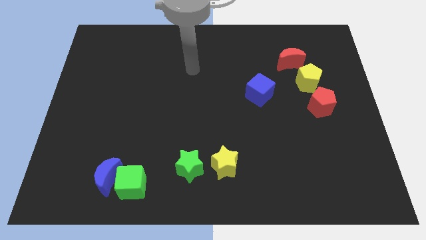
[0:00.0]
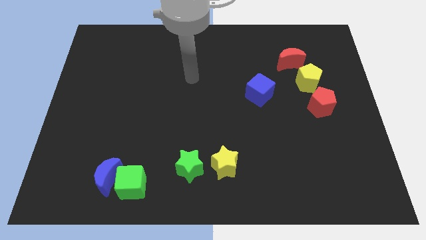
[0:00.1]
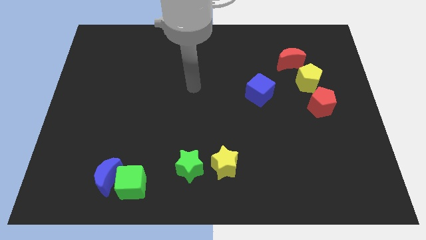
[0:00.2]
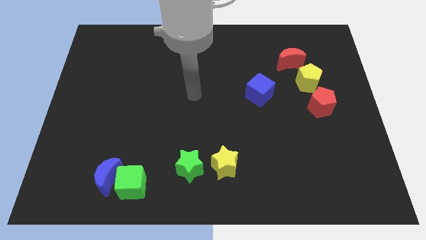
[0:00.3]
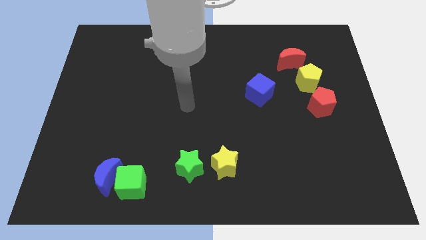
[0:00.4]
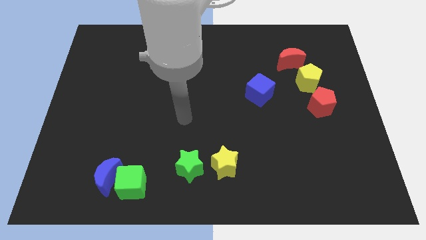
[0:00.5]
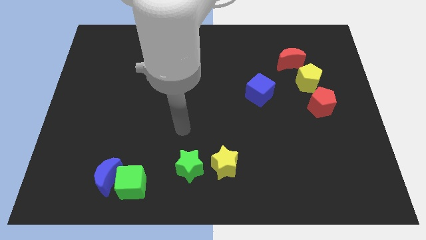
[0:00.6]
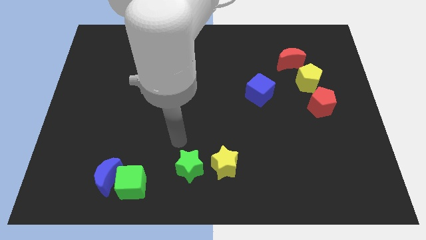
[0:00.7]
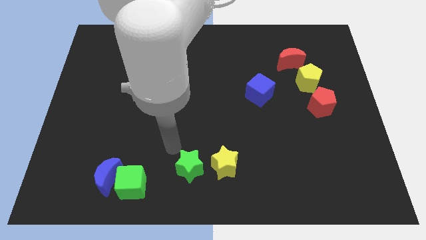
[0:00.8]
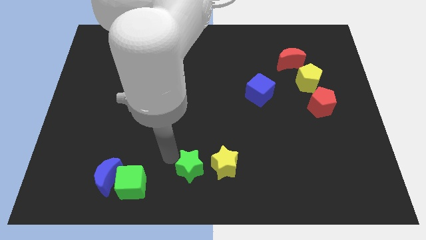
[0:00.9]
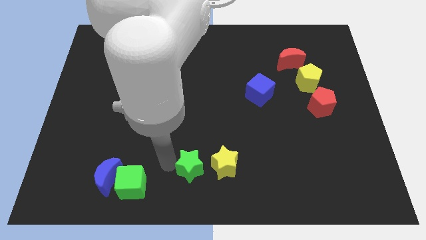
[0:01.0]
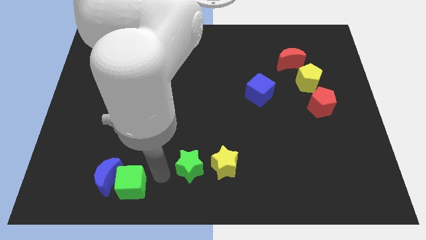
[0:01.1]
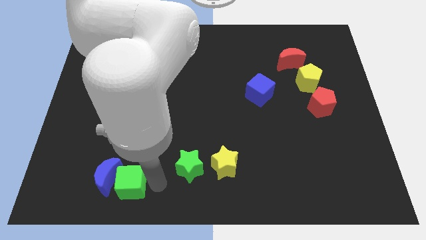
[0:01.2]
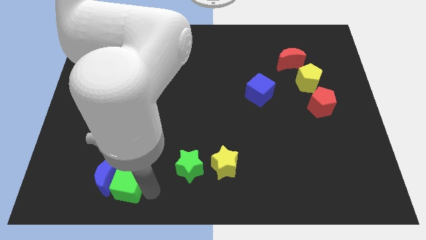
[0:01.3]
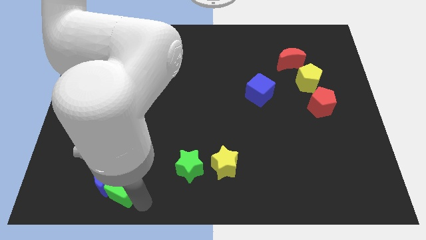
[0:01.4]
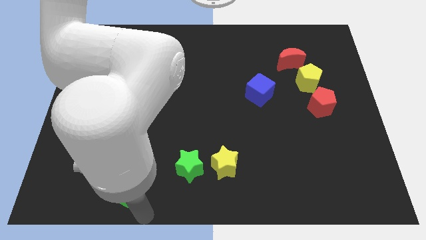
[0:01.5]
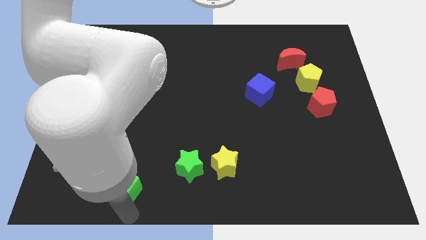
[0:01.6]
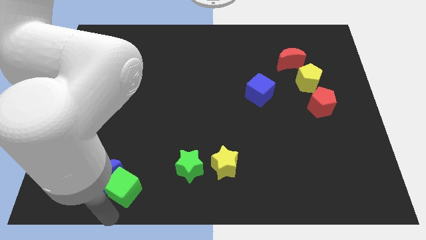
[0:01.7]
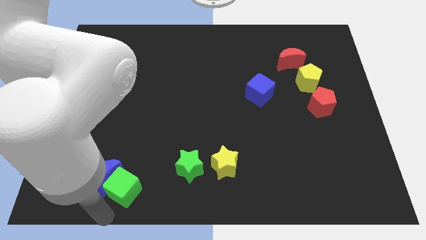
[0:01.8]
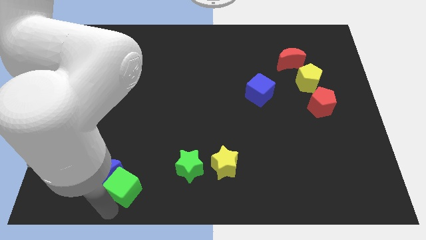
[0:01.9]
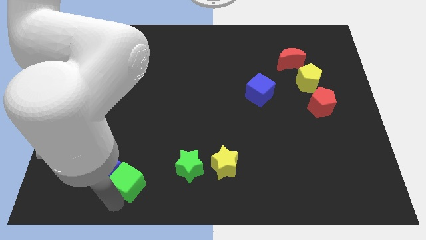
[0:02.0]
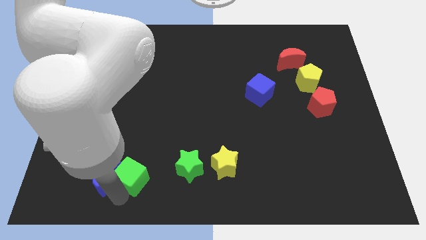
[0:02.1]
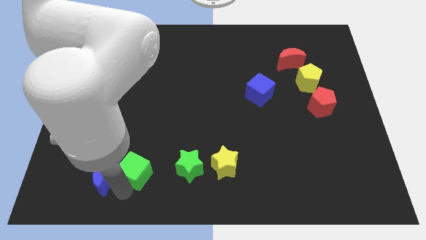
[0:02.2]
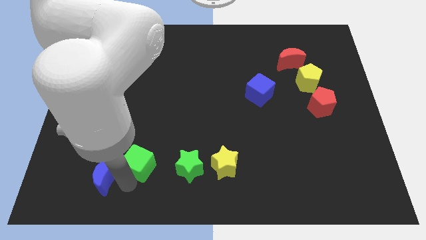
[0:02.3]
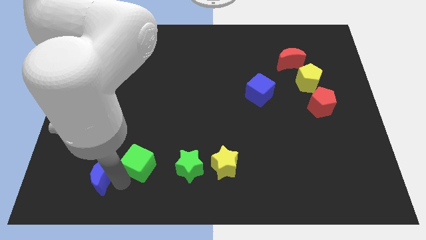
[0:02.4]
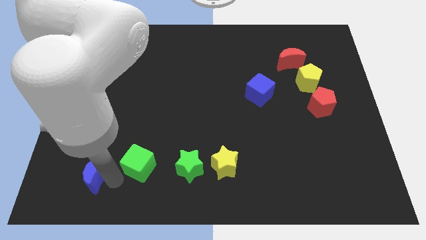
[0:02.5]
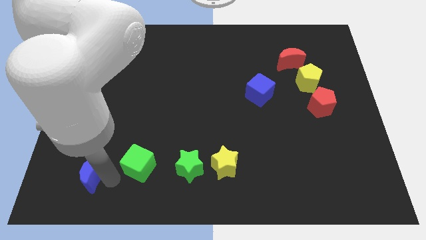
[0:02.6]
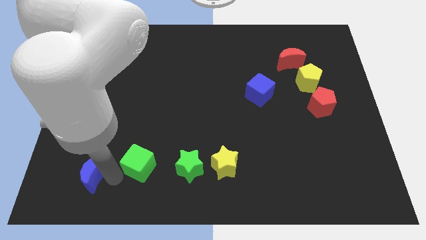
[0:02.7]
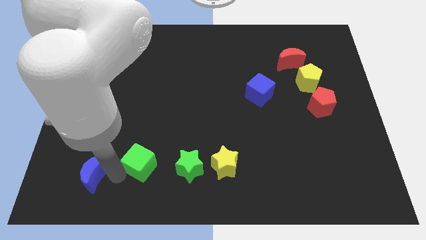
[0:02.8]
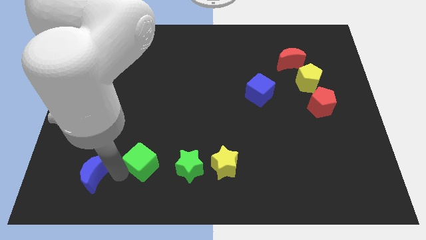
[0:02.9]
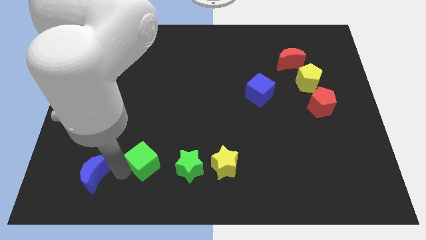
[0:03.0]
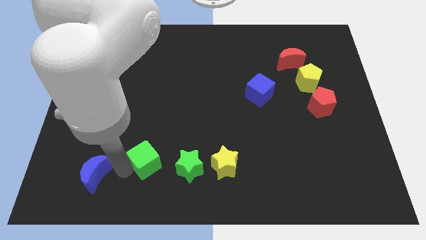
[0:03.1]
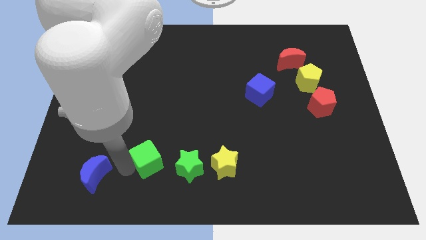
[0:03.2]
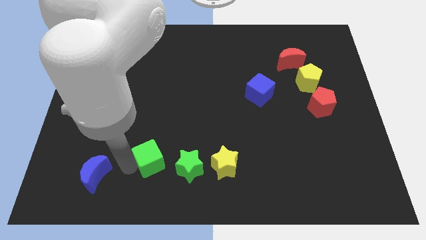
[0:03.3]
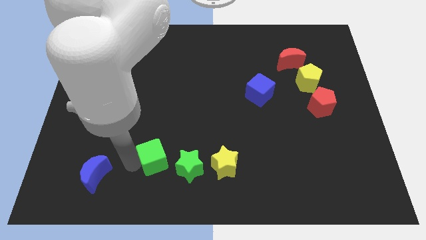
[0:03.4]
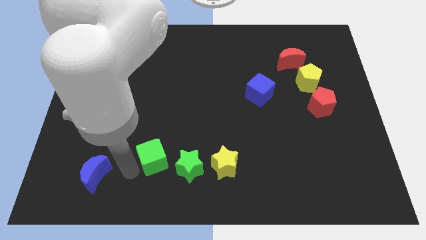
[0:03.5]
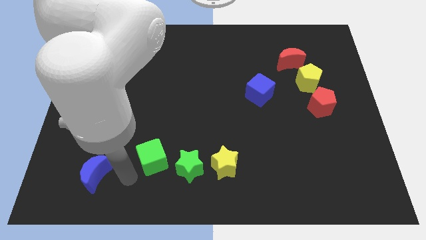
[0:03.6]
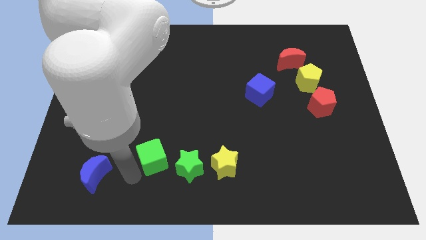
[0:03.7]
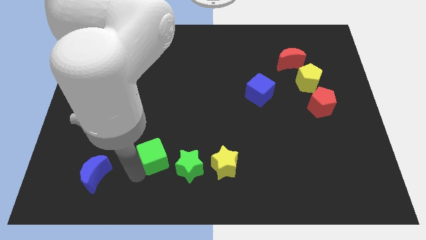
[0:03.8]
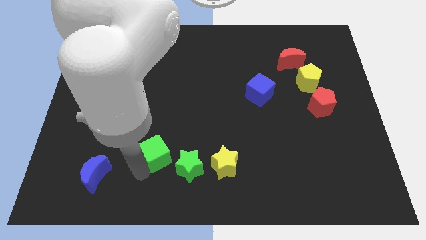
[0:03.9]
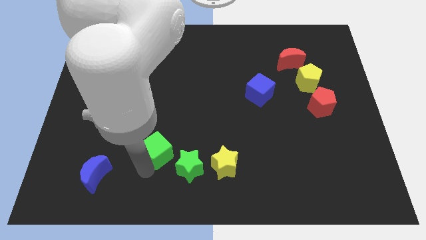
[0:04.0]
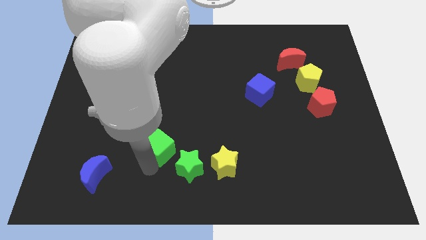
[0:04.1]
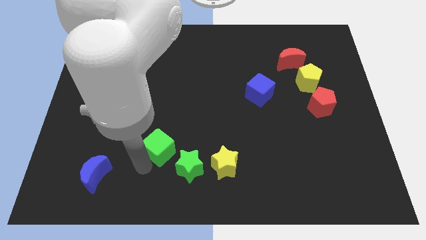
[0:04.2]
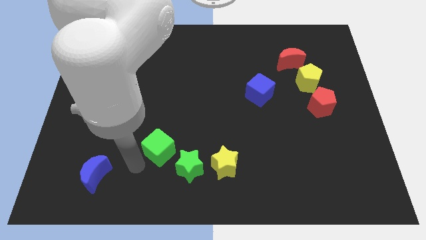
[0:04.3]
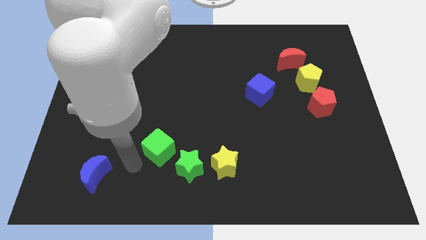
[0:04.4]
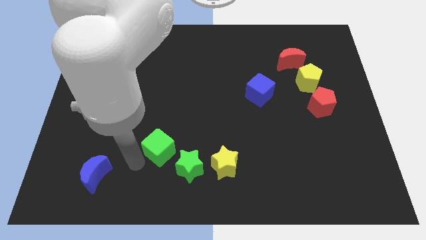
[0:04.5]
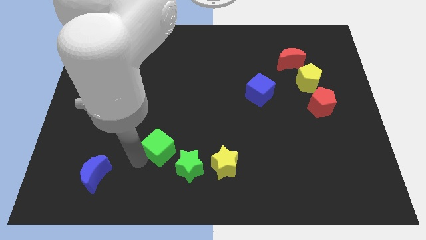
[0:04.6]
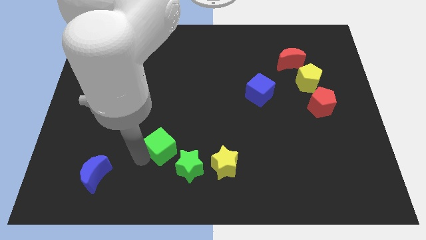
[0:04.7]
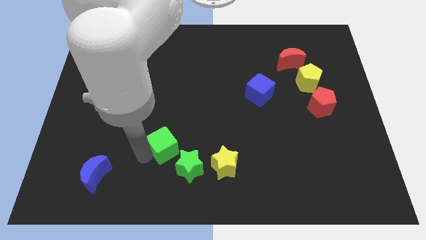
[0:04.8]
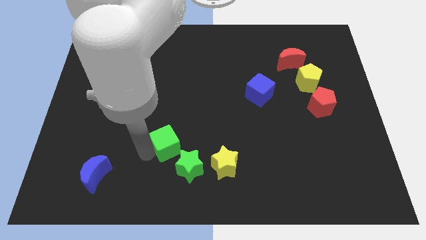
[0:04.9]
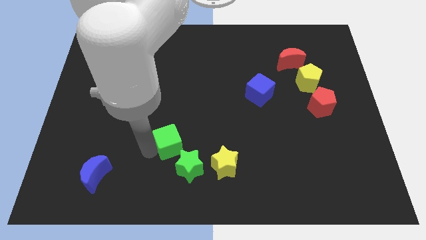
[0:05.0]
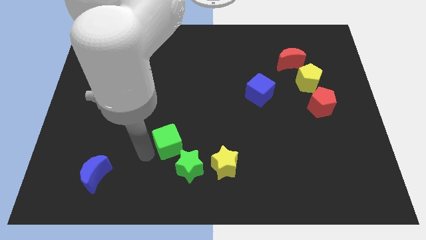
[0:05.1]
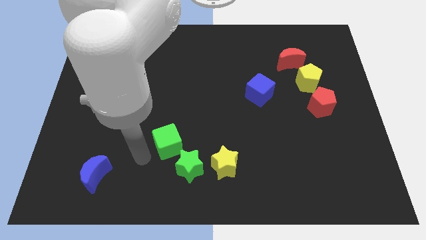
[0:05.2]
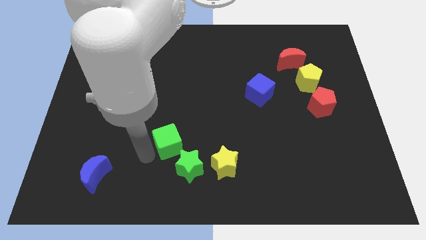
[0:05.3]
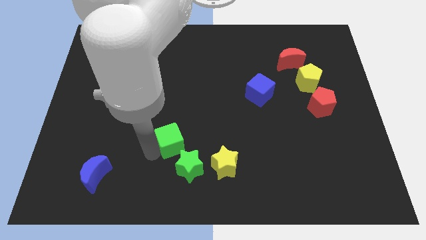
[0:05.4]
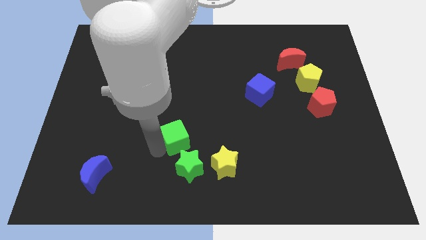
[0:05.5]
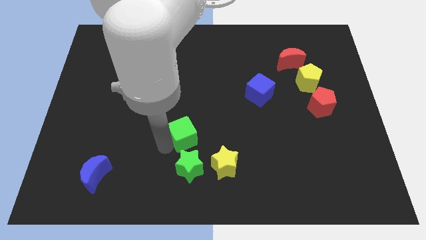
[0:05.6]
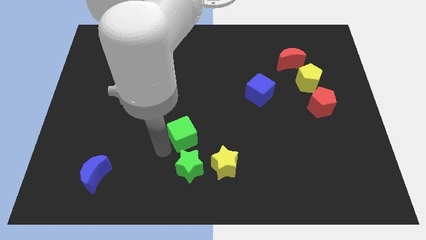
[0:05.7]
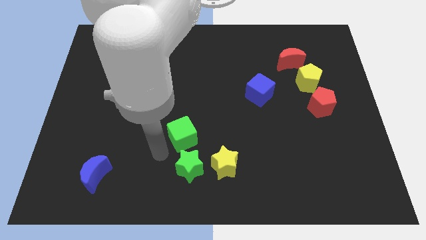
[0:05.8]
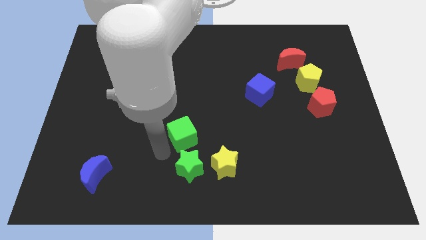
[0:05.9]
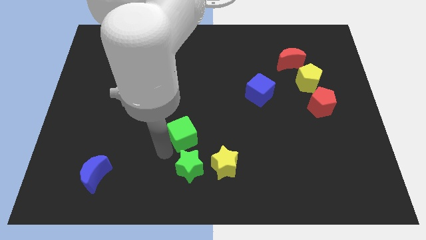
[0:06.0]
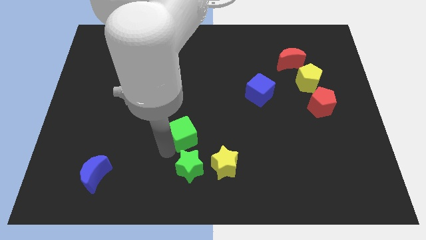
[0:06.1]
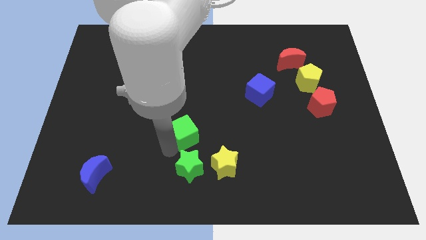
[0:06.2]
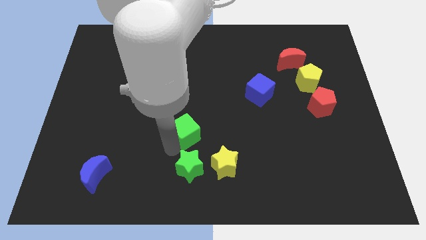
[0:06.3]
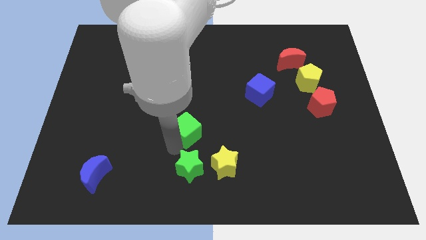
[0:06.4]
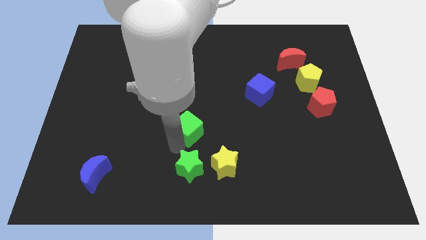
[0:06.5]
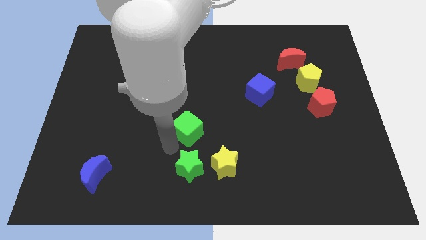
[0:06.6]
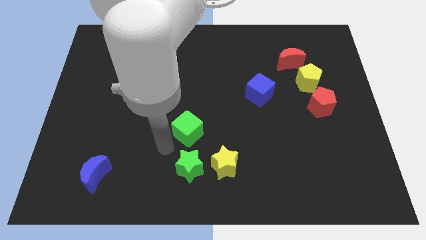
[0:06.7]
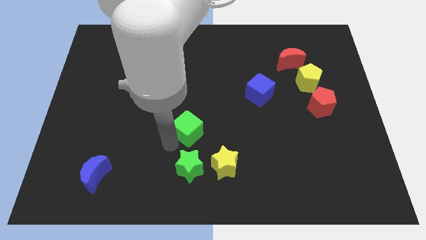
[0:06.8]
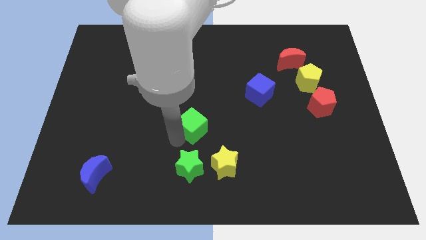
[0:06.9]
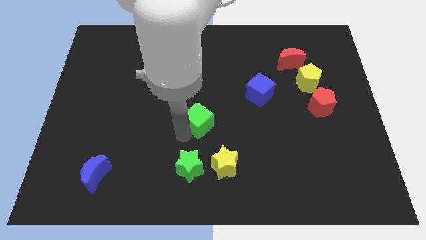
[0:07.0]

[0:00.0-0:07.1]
push the green cube diagonally up and to the right

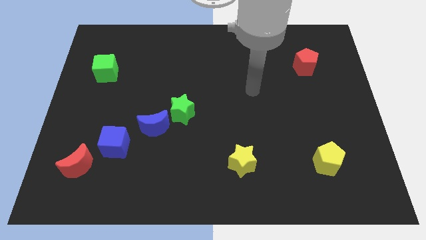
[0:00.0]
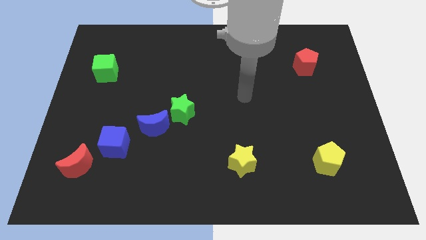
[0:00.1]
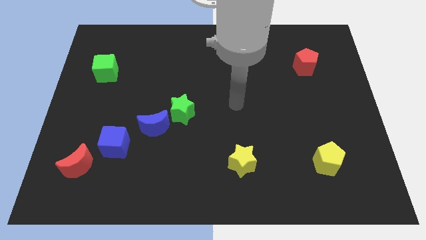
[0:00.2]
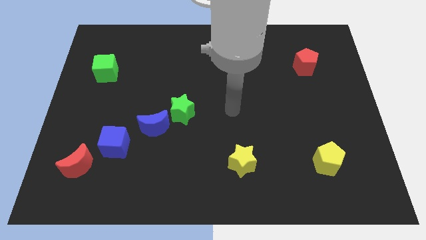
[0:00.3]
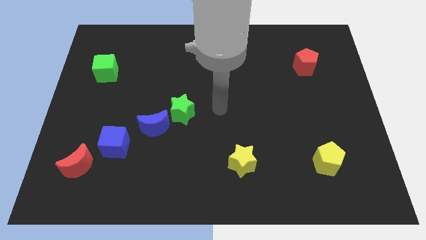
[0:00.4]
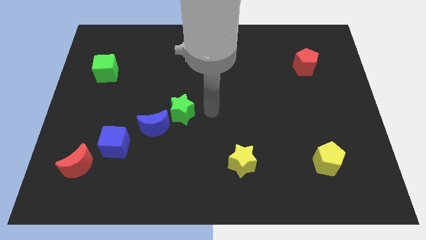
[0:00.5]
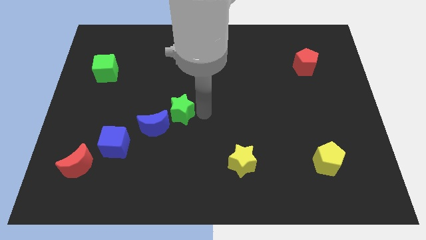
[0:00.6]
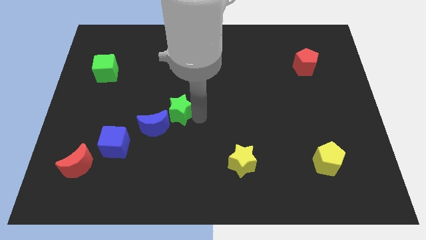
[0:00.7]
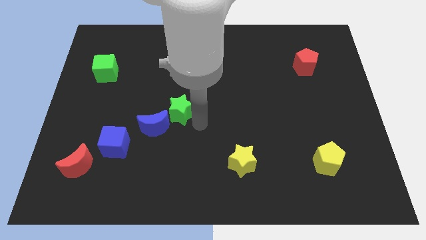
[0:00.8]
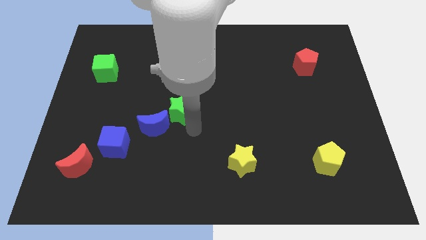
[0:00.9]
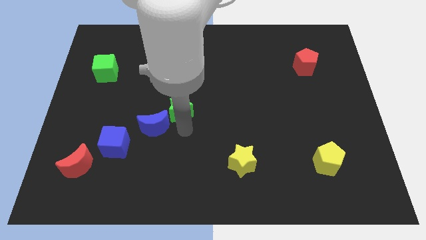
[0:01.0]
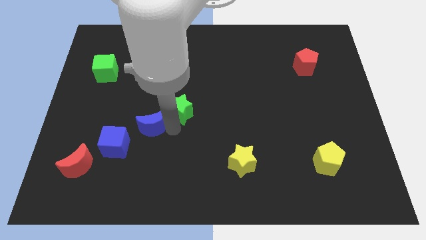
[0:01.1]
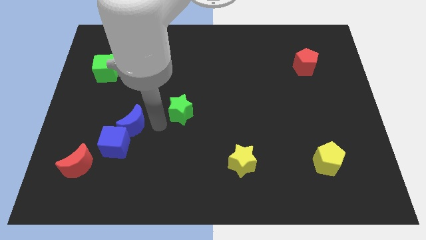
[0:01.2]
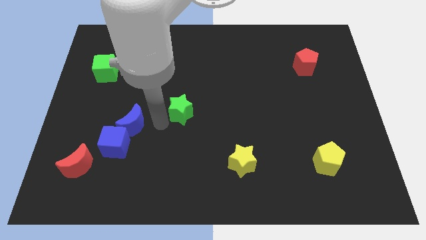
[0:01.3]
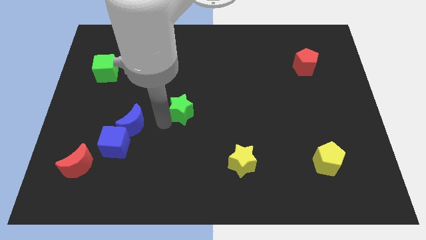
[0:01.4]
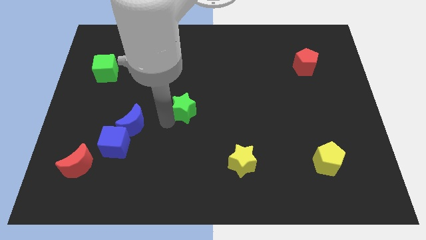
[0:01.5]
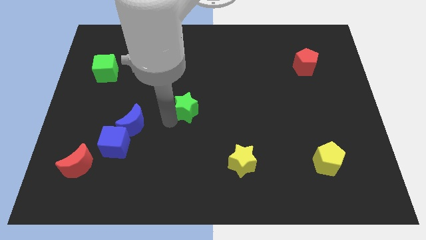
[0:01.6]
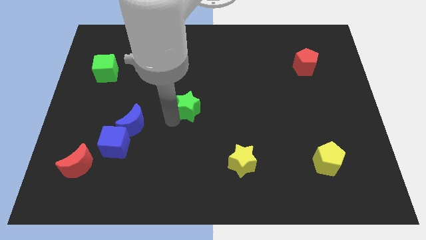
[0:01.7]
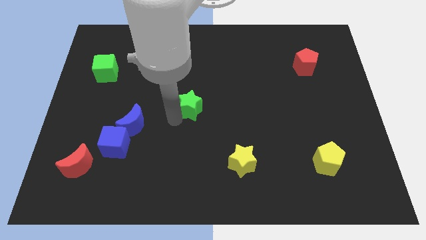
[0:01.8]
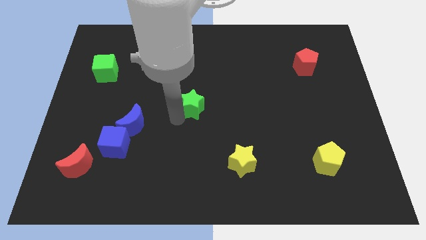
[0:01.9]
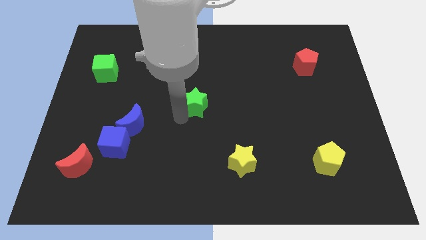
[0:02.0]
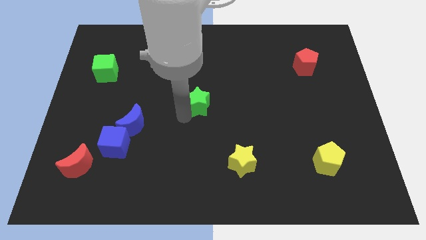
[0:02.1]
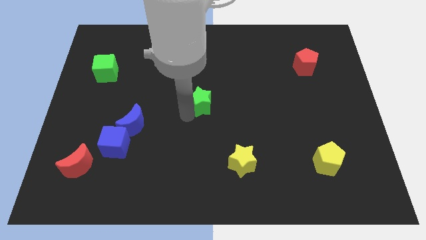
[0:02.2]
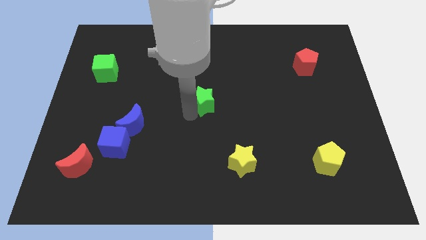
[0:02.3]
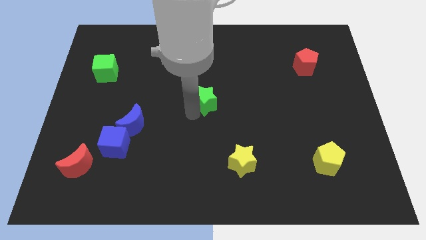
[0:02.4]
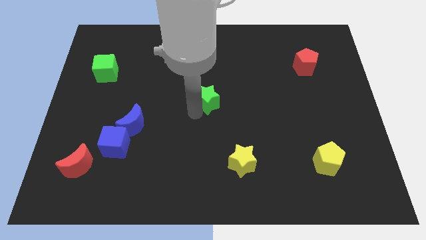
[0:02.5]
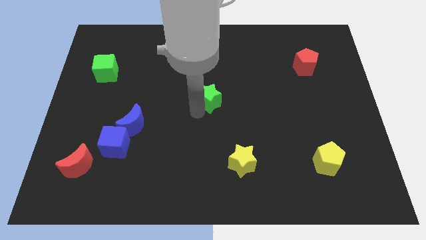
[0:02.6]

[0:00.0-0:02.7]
slightly push the green star diagonally upwards and to the right
